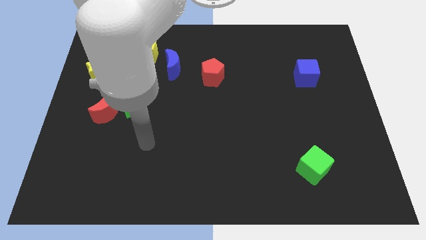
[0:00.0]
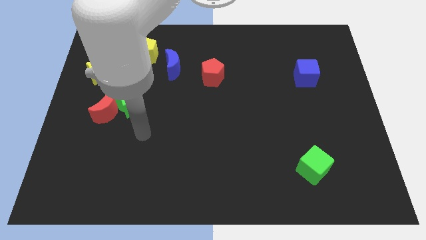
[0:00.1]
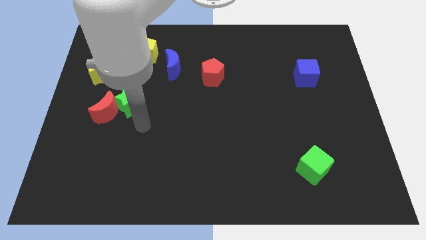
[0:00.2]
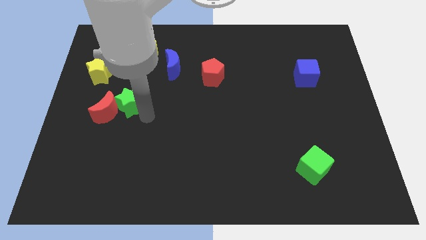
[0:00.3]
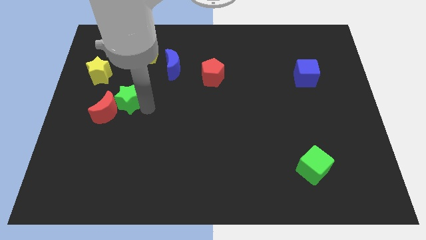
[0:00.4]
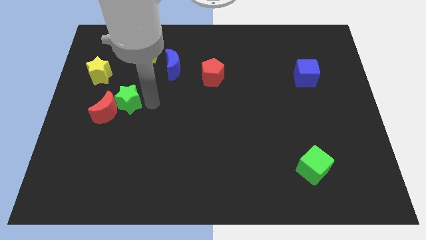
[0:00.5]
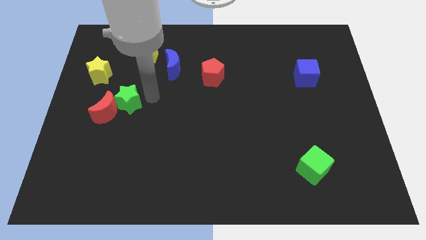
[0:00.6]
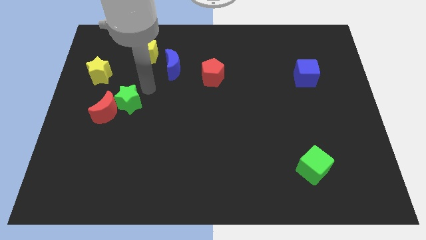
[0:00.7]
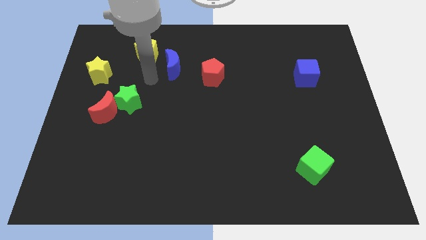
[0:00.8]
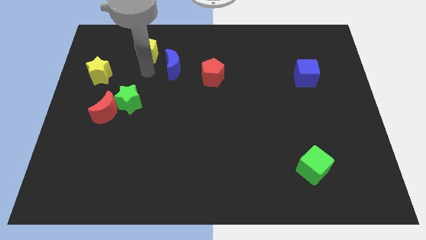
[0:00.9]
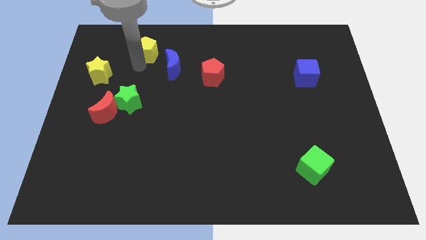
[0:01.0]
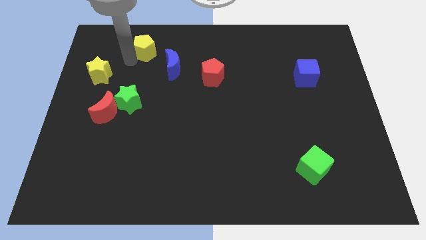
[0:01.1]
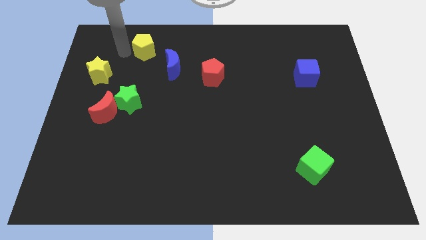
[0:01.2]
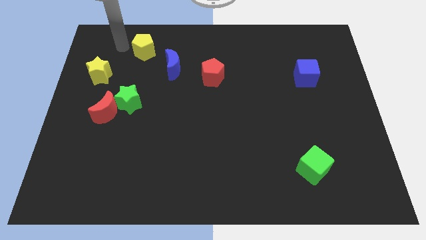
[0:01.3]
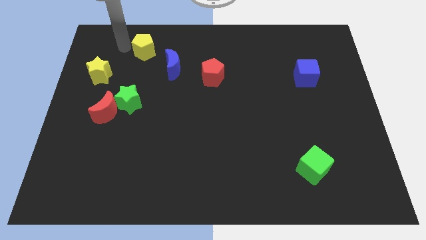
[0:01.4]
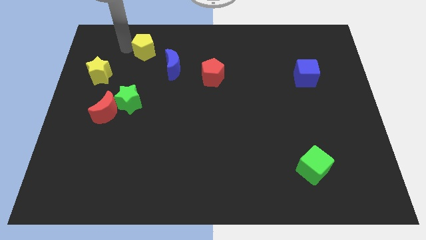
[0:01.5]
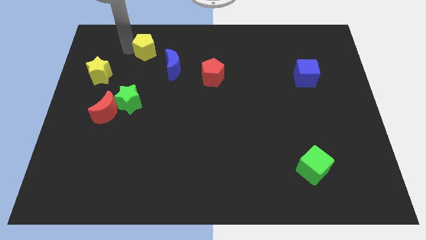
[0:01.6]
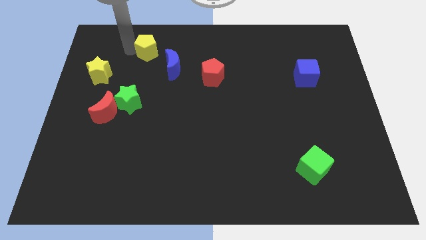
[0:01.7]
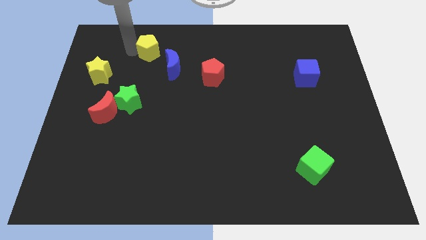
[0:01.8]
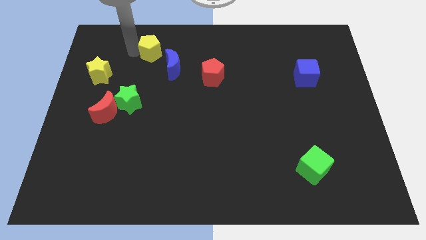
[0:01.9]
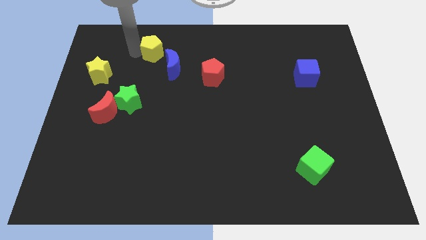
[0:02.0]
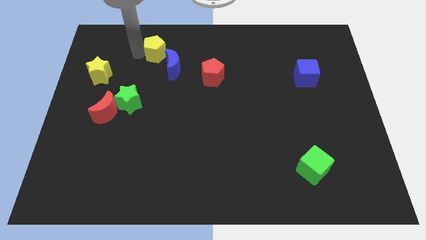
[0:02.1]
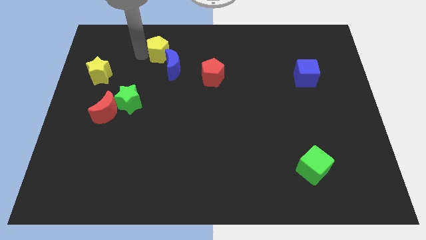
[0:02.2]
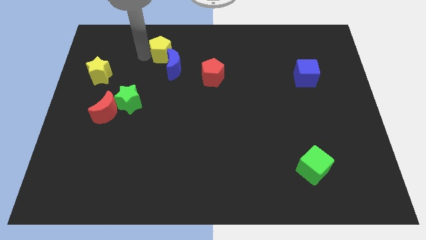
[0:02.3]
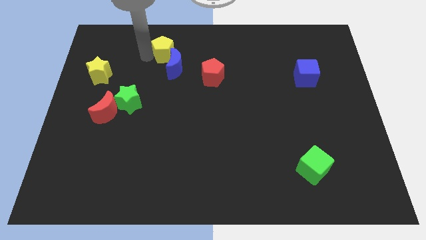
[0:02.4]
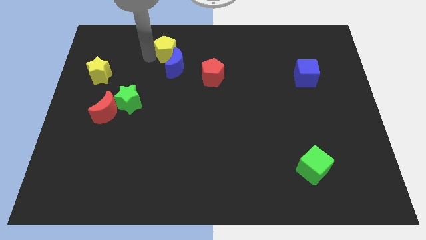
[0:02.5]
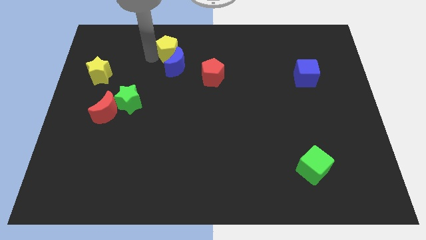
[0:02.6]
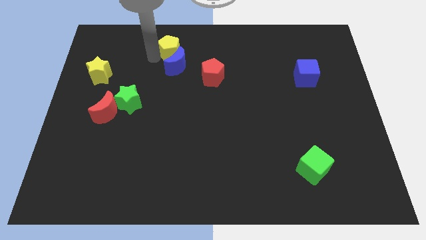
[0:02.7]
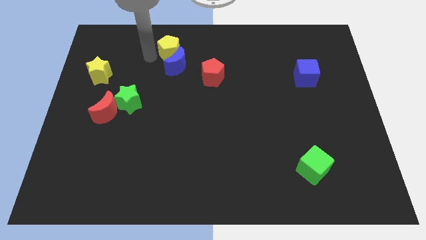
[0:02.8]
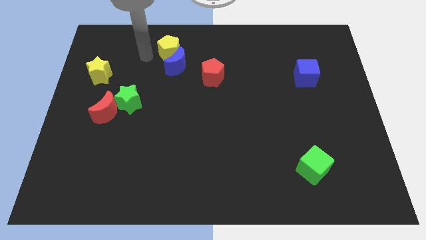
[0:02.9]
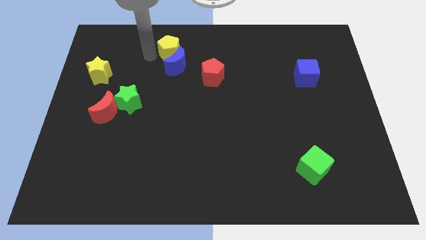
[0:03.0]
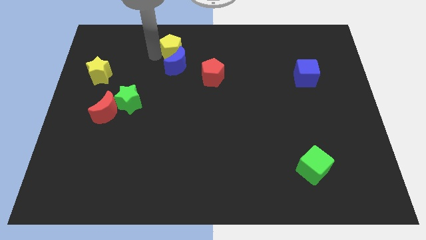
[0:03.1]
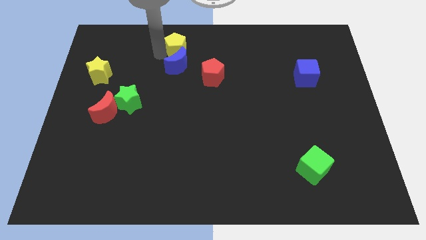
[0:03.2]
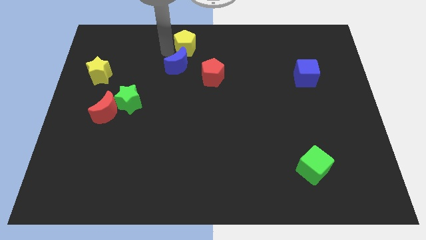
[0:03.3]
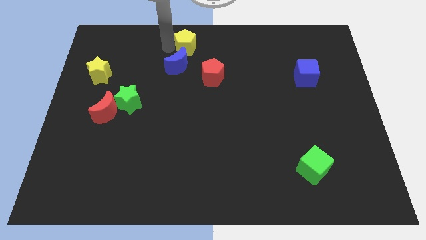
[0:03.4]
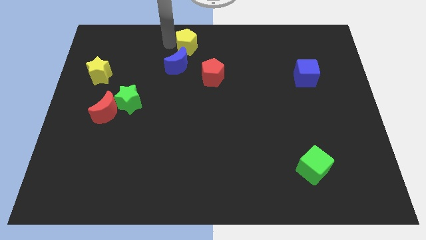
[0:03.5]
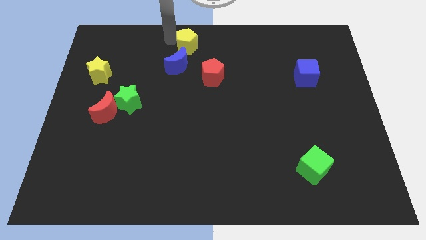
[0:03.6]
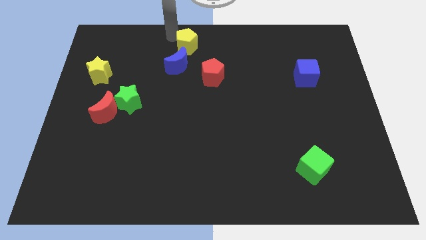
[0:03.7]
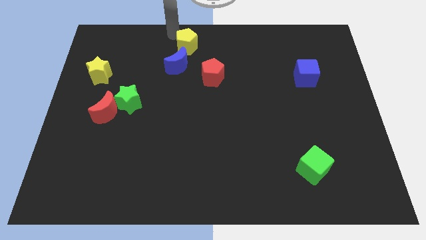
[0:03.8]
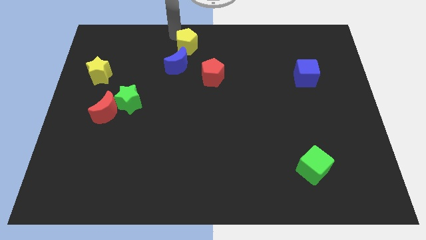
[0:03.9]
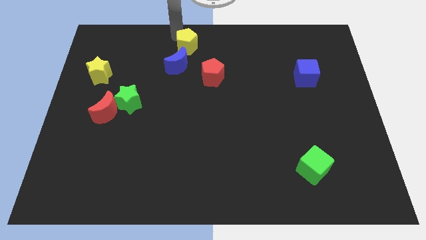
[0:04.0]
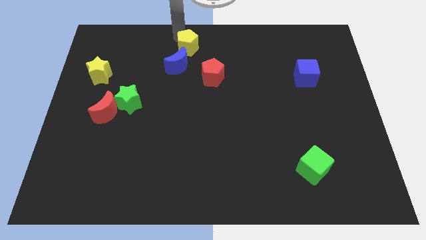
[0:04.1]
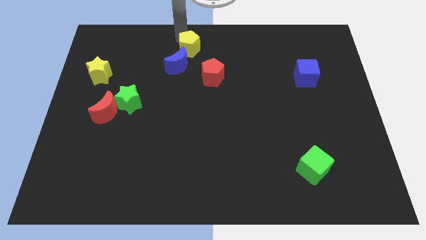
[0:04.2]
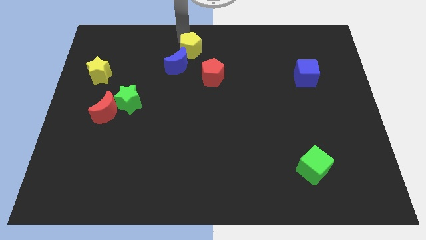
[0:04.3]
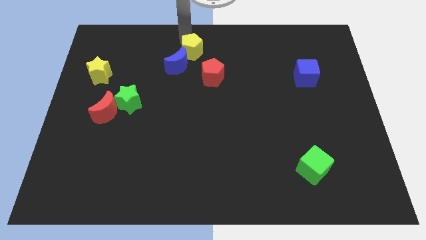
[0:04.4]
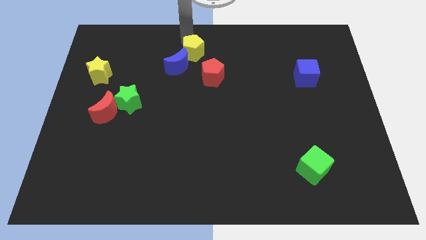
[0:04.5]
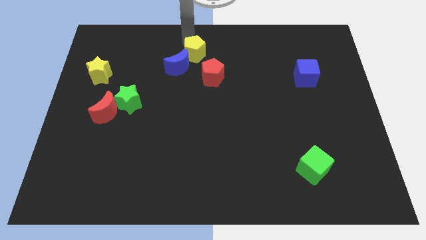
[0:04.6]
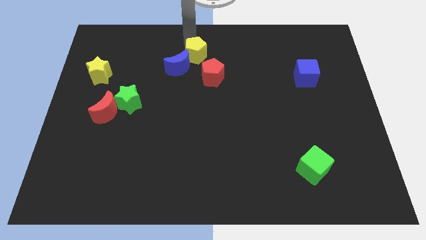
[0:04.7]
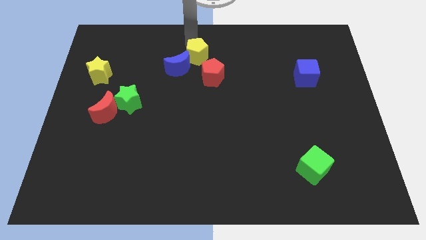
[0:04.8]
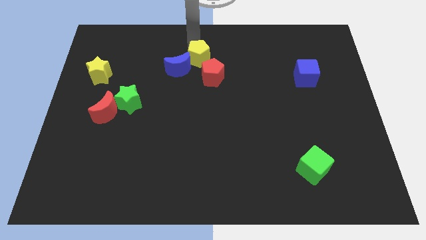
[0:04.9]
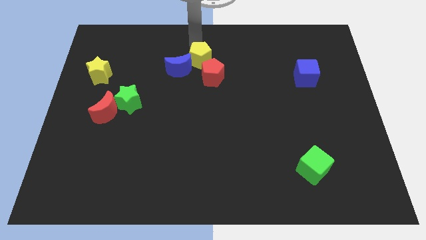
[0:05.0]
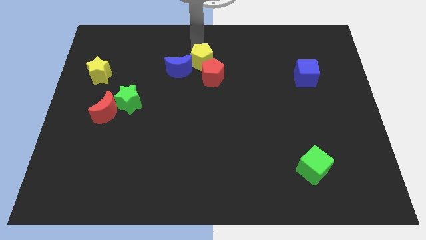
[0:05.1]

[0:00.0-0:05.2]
slide the yellow pentagon towards the red pentagon

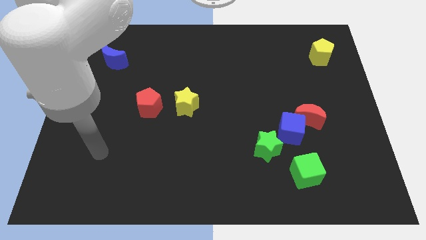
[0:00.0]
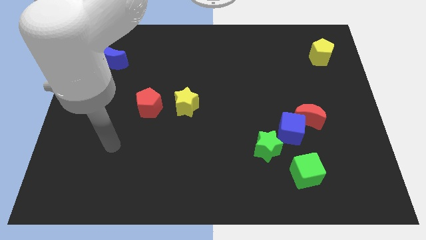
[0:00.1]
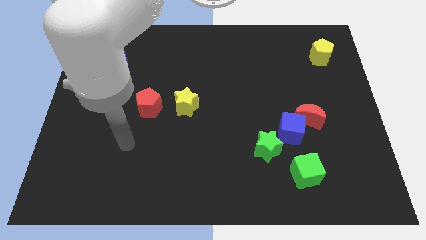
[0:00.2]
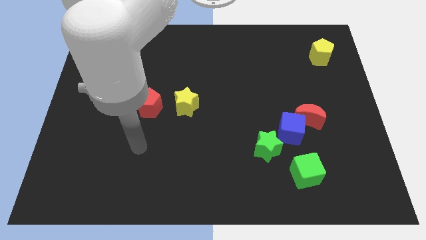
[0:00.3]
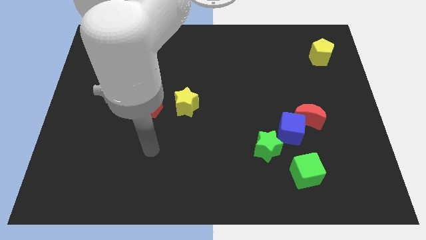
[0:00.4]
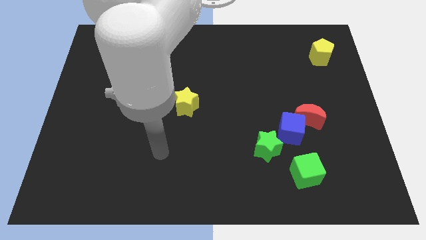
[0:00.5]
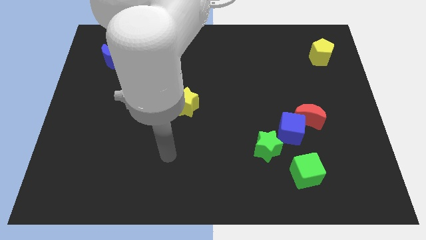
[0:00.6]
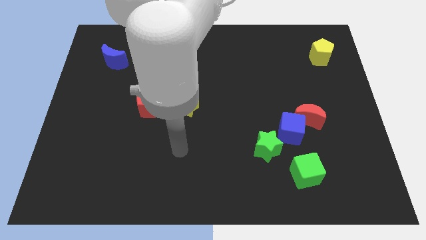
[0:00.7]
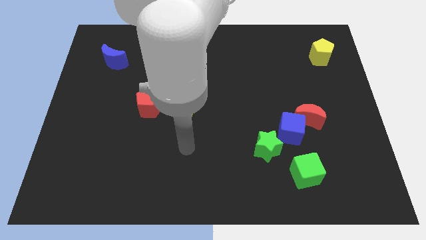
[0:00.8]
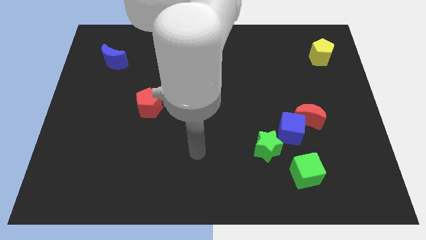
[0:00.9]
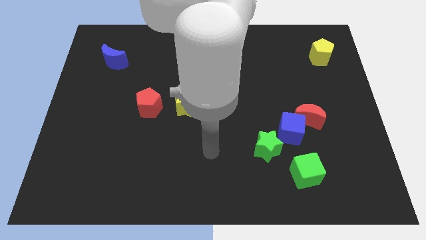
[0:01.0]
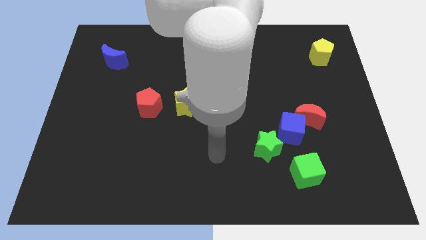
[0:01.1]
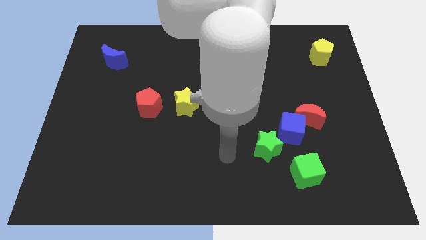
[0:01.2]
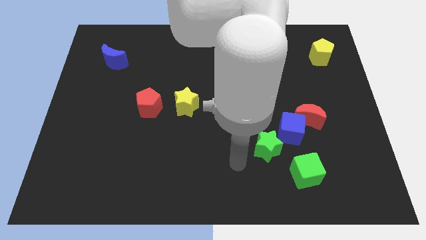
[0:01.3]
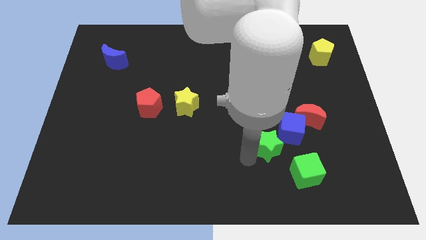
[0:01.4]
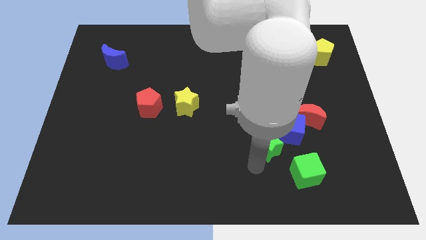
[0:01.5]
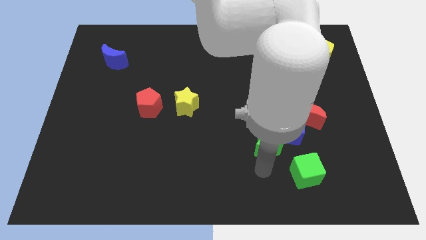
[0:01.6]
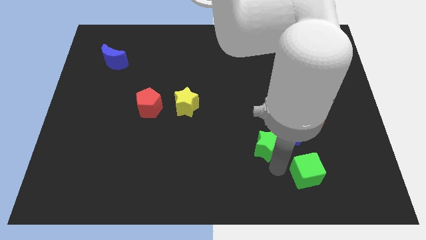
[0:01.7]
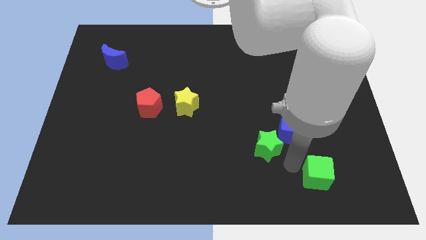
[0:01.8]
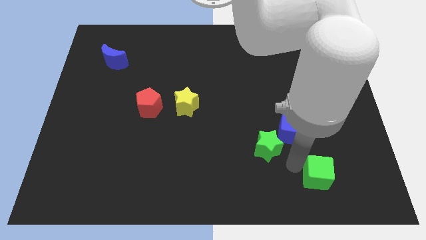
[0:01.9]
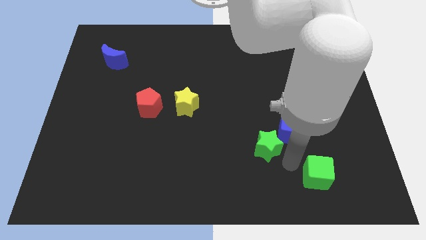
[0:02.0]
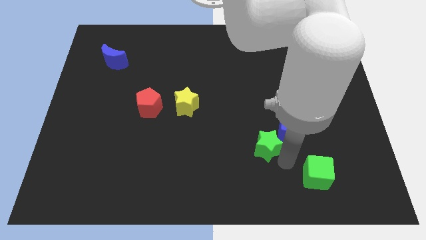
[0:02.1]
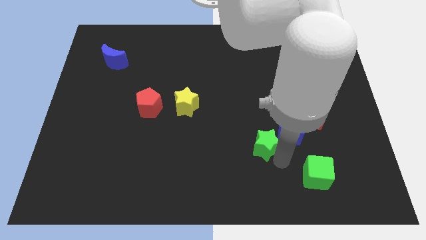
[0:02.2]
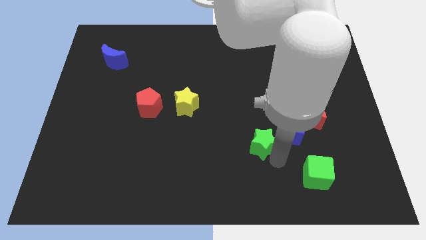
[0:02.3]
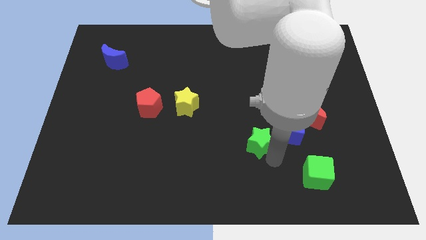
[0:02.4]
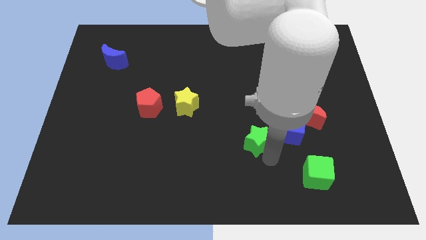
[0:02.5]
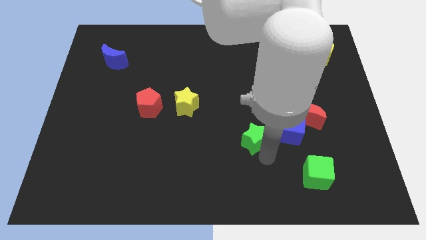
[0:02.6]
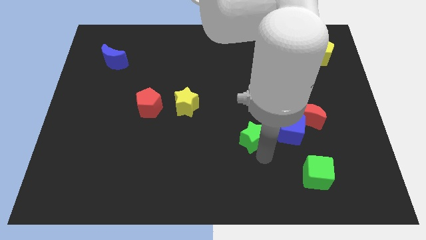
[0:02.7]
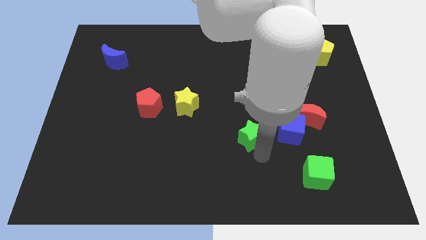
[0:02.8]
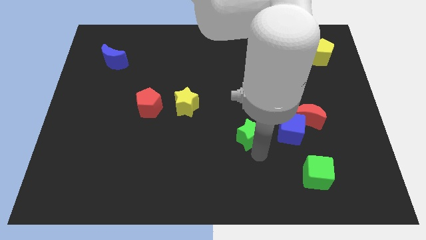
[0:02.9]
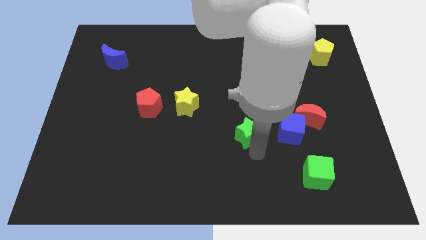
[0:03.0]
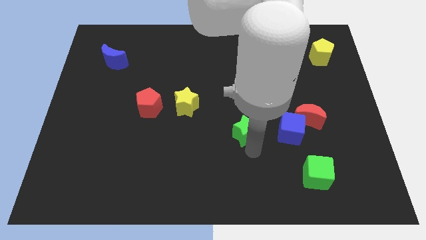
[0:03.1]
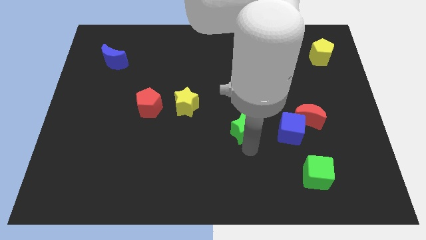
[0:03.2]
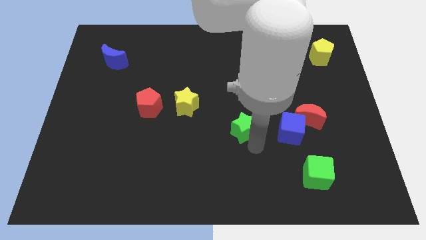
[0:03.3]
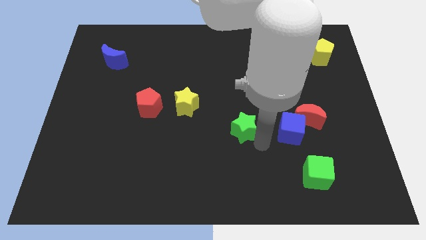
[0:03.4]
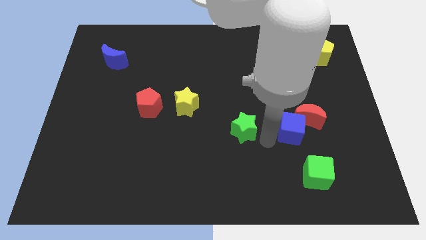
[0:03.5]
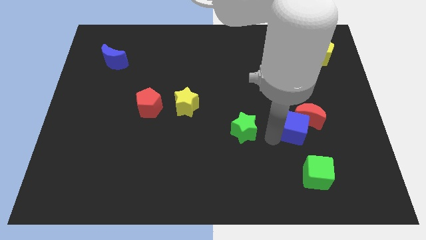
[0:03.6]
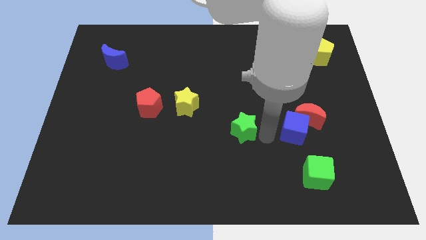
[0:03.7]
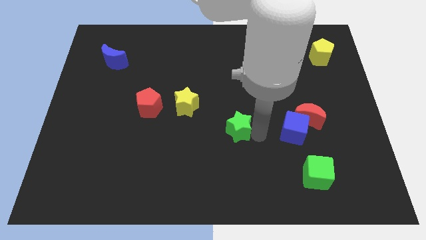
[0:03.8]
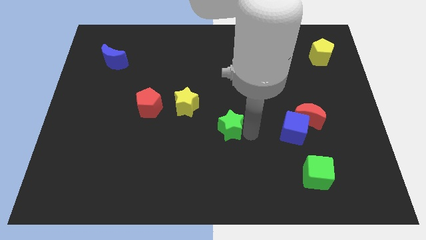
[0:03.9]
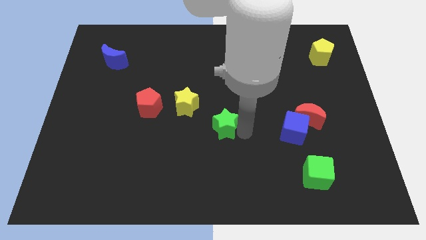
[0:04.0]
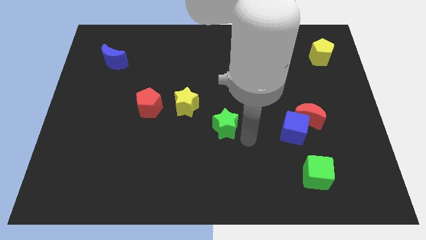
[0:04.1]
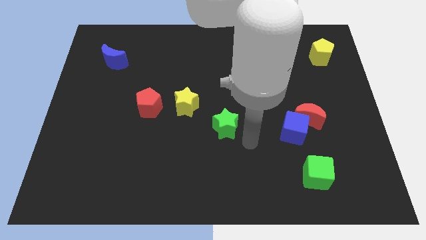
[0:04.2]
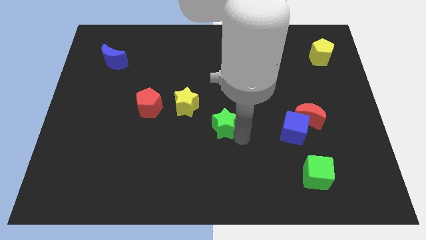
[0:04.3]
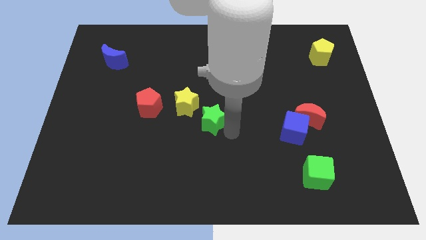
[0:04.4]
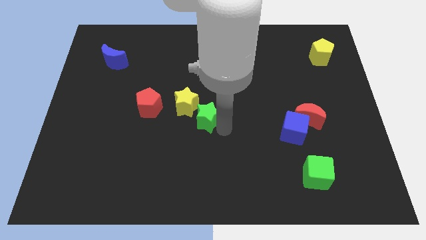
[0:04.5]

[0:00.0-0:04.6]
slide the green star close to the yellow star
